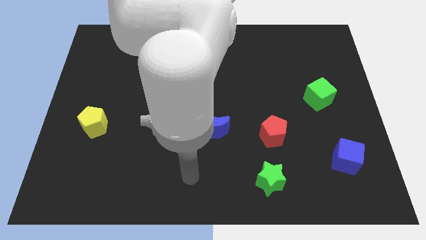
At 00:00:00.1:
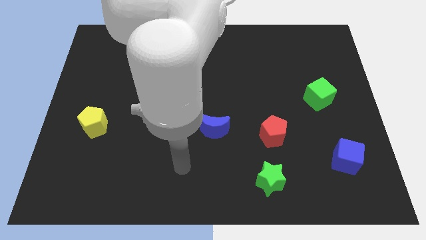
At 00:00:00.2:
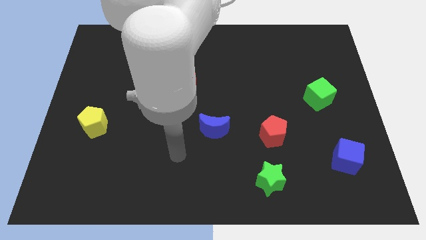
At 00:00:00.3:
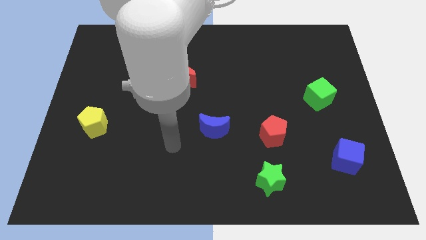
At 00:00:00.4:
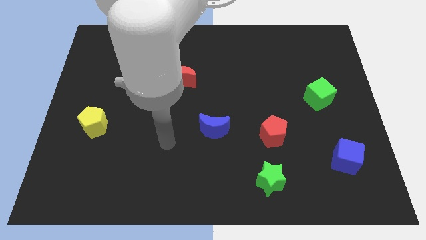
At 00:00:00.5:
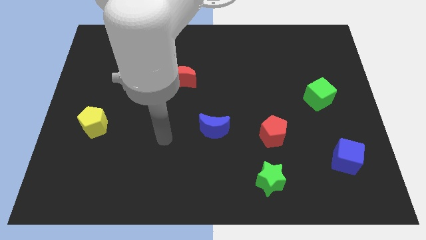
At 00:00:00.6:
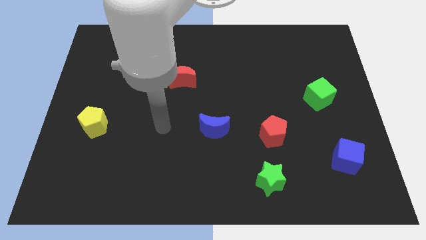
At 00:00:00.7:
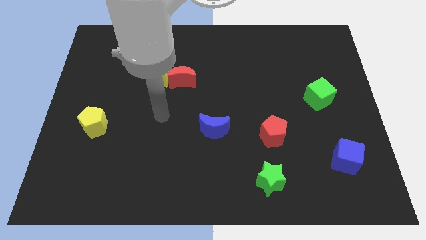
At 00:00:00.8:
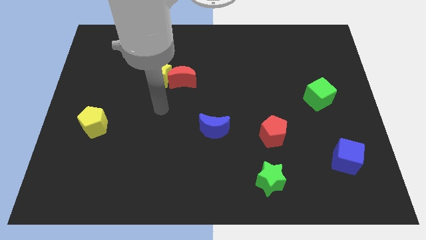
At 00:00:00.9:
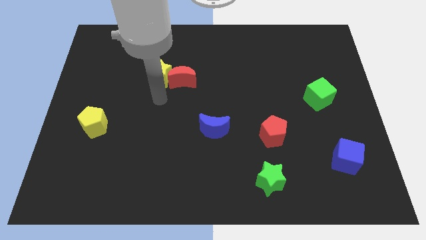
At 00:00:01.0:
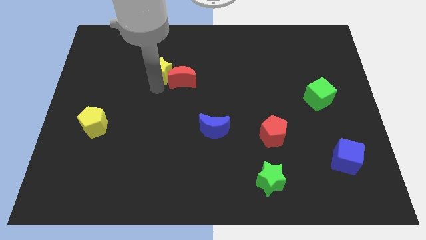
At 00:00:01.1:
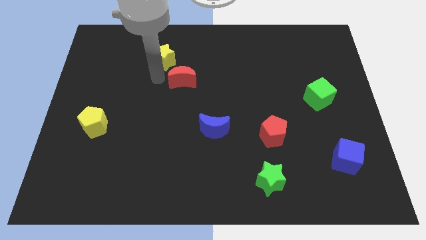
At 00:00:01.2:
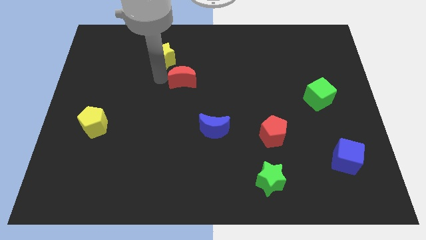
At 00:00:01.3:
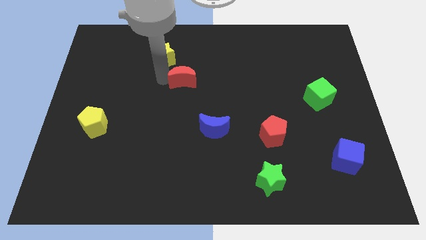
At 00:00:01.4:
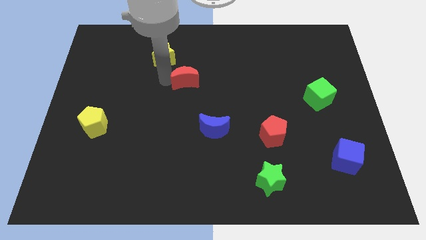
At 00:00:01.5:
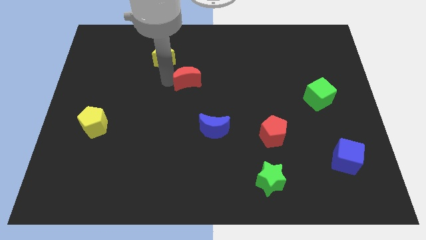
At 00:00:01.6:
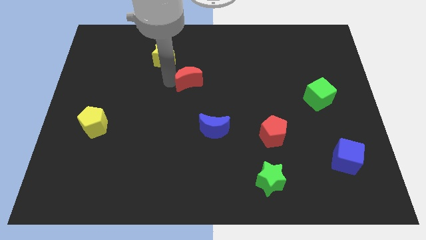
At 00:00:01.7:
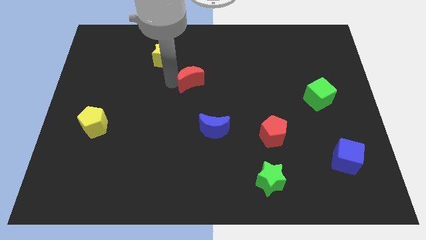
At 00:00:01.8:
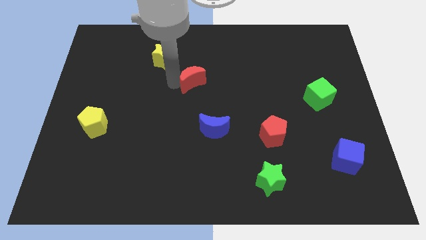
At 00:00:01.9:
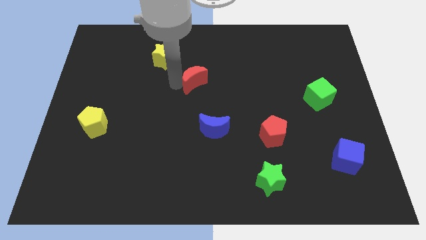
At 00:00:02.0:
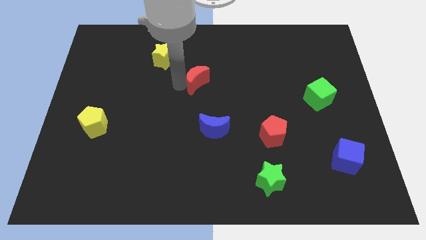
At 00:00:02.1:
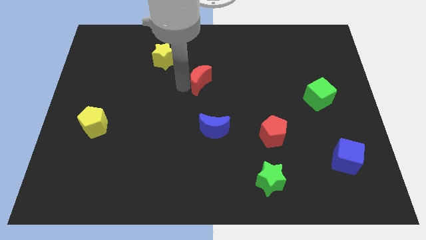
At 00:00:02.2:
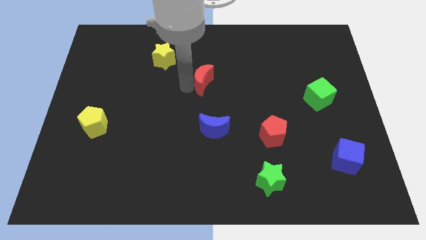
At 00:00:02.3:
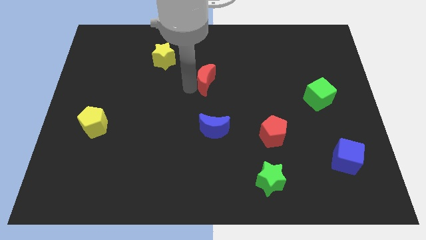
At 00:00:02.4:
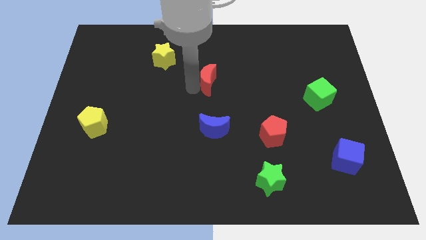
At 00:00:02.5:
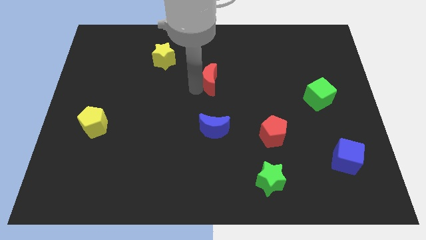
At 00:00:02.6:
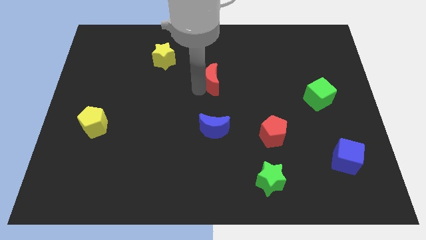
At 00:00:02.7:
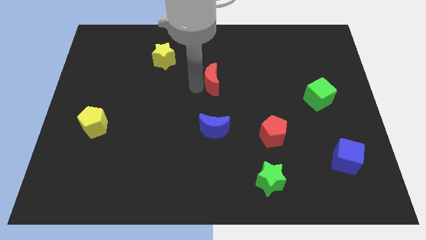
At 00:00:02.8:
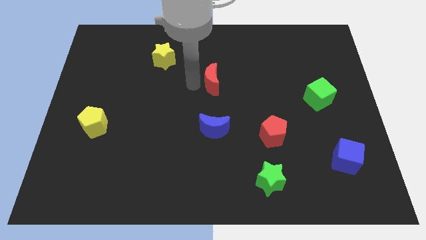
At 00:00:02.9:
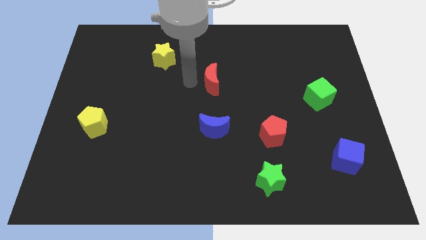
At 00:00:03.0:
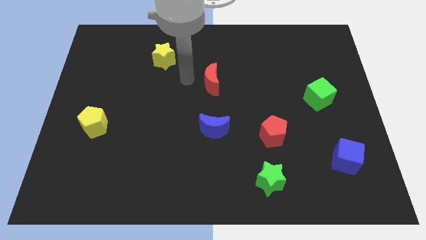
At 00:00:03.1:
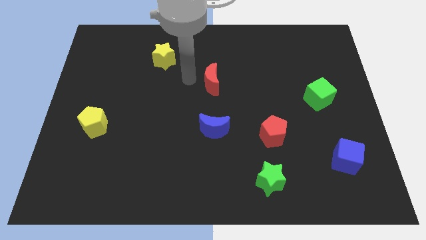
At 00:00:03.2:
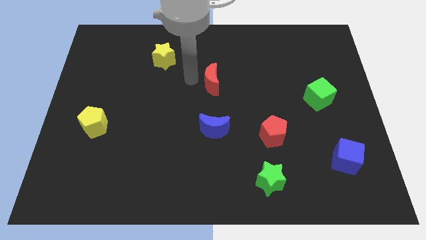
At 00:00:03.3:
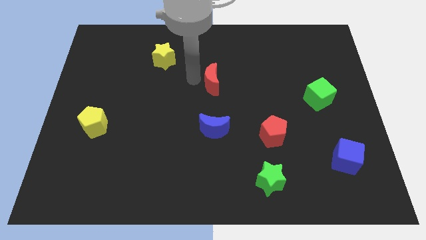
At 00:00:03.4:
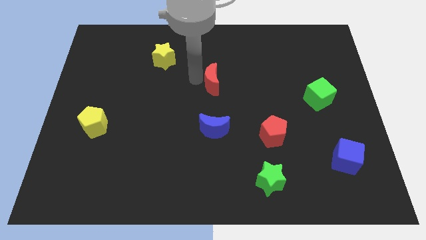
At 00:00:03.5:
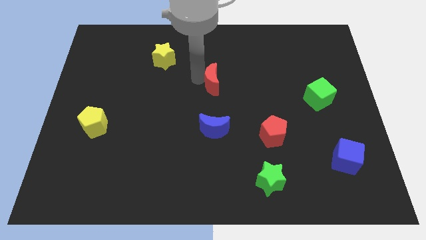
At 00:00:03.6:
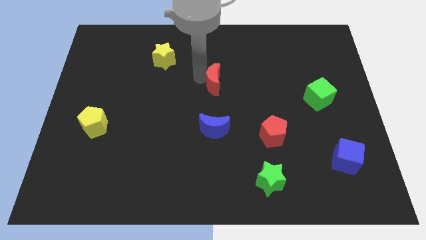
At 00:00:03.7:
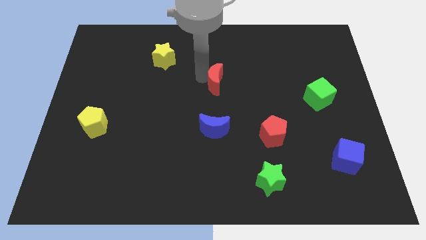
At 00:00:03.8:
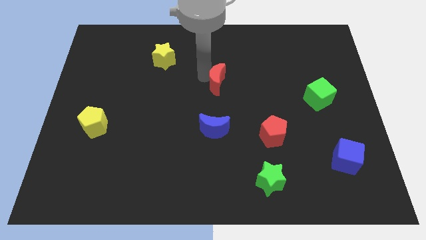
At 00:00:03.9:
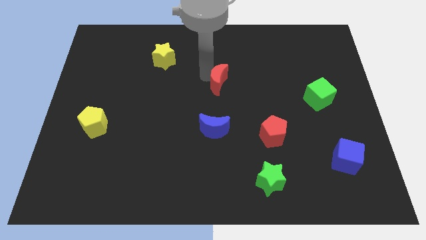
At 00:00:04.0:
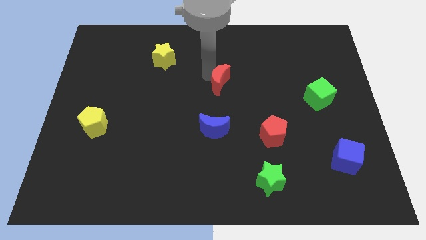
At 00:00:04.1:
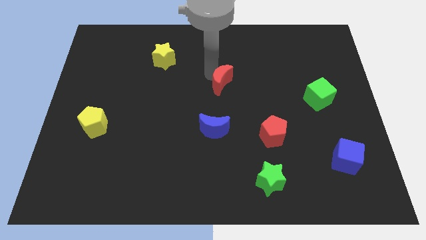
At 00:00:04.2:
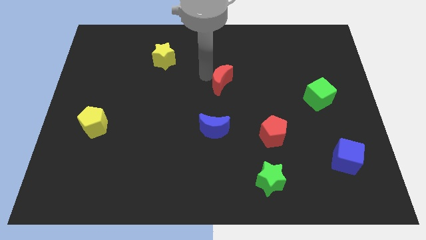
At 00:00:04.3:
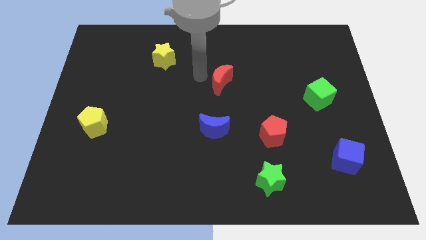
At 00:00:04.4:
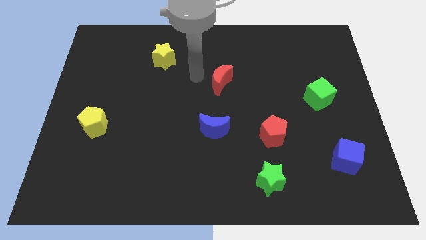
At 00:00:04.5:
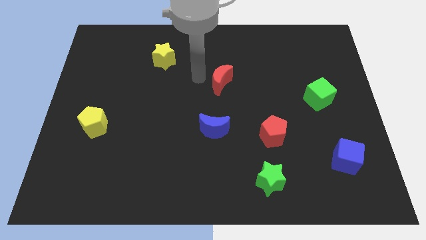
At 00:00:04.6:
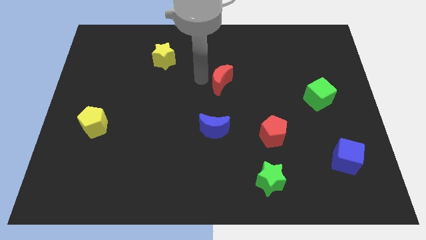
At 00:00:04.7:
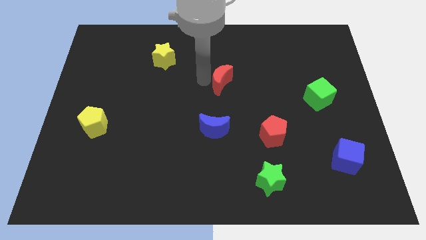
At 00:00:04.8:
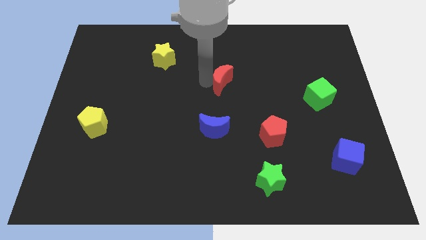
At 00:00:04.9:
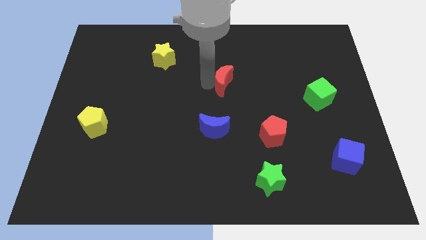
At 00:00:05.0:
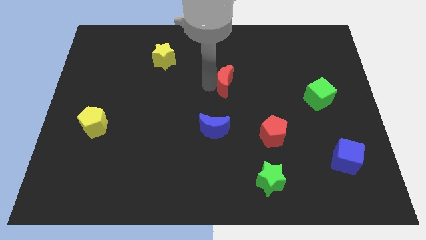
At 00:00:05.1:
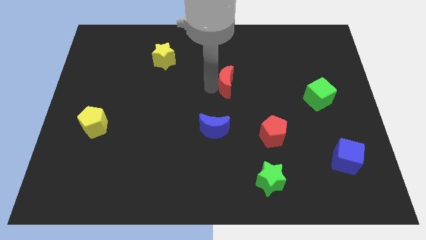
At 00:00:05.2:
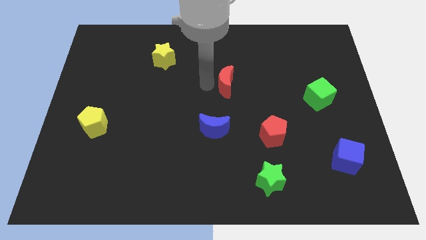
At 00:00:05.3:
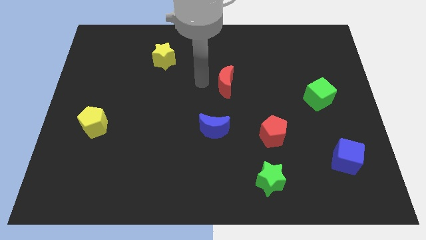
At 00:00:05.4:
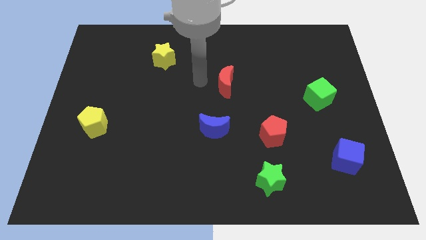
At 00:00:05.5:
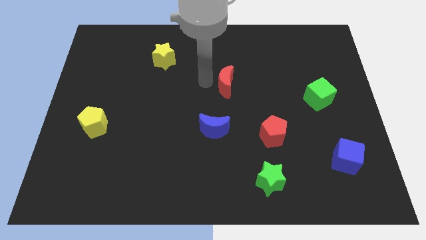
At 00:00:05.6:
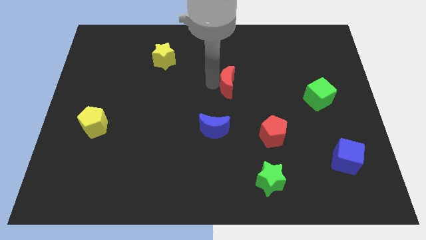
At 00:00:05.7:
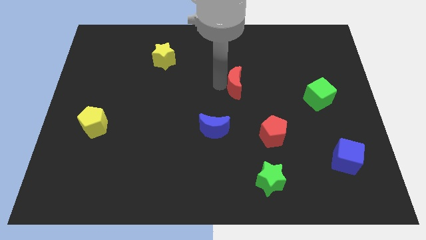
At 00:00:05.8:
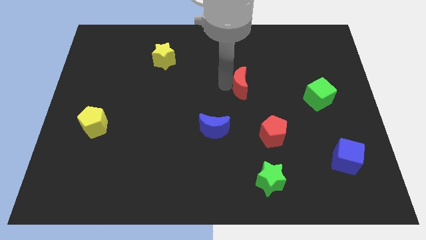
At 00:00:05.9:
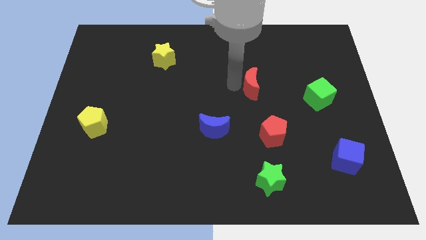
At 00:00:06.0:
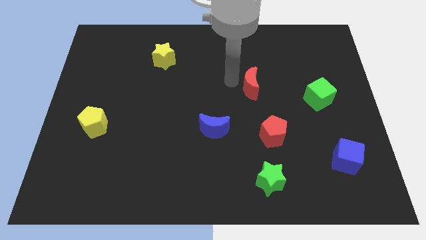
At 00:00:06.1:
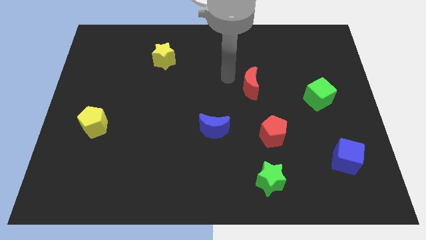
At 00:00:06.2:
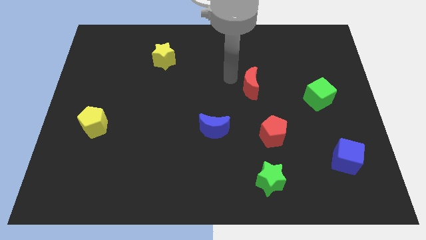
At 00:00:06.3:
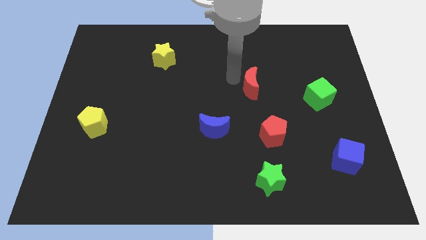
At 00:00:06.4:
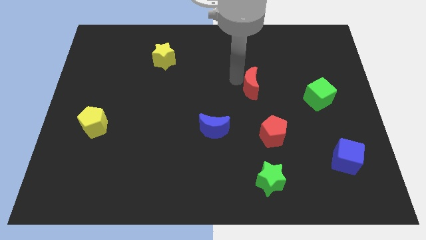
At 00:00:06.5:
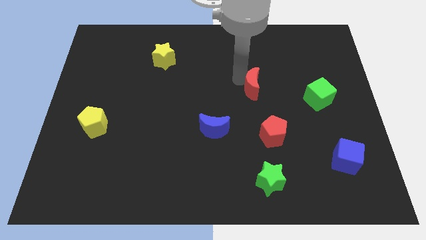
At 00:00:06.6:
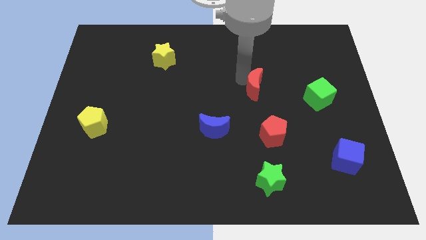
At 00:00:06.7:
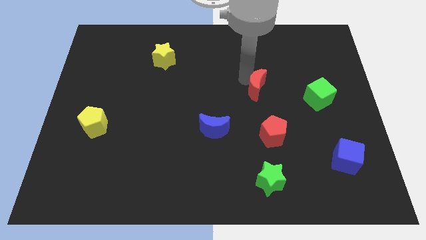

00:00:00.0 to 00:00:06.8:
push the red moon just left of the green cube
